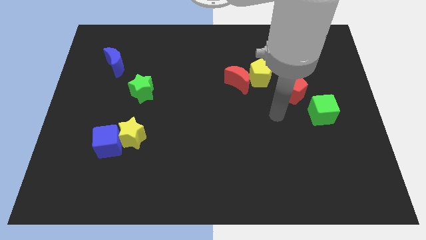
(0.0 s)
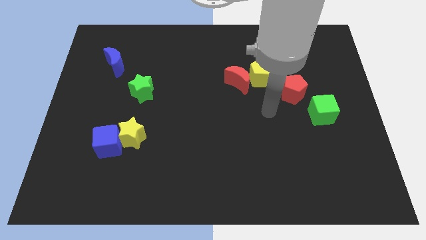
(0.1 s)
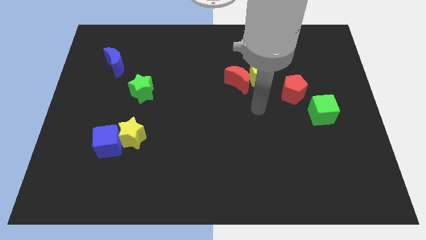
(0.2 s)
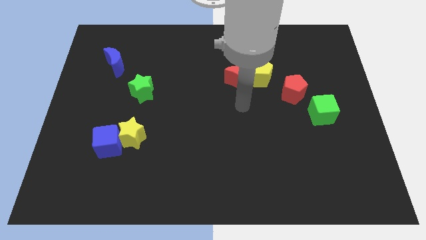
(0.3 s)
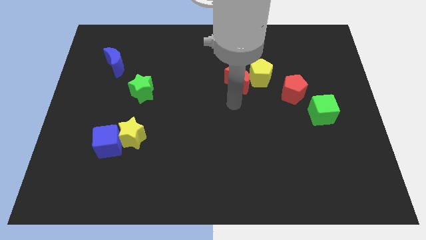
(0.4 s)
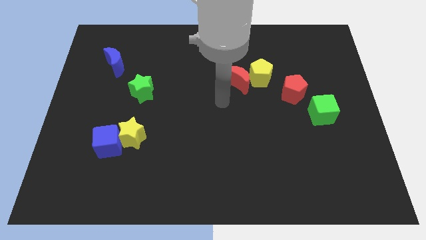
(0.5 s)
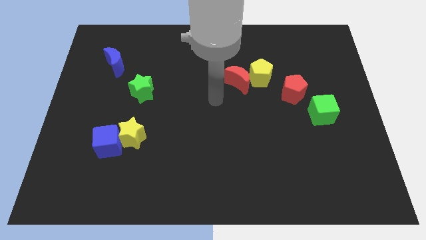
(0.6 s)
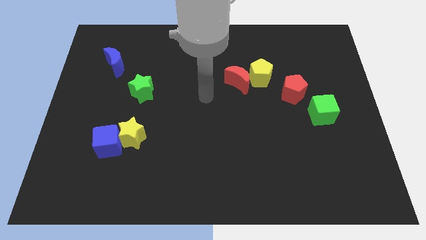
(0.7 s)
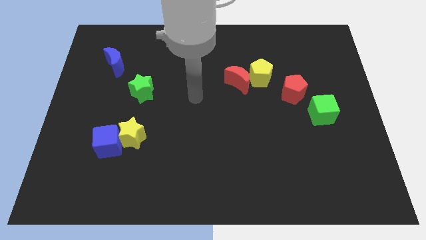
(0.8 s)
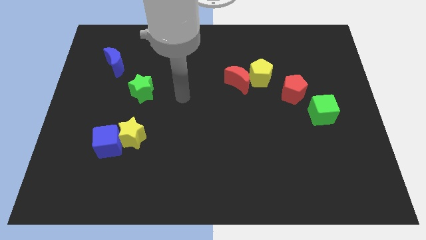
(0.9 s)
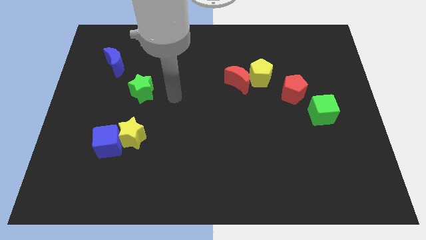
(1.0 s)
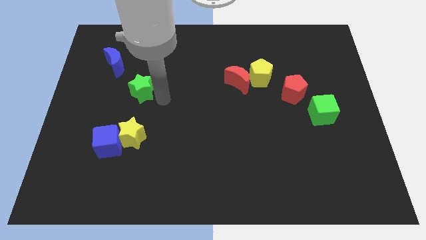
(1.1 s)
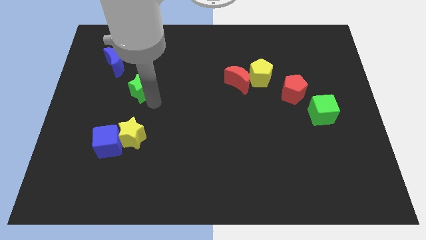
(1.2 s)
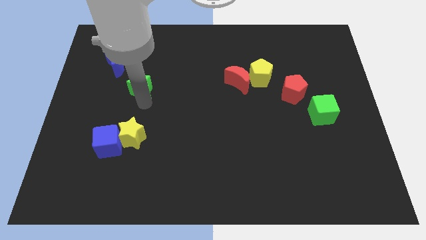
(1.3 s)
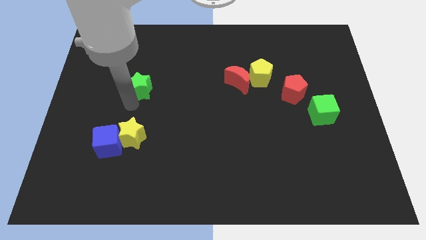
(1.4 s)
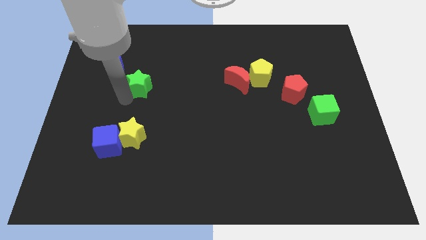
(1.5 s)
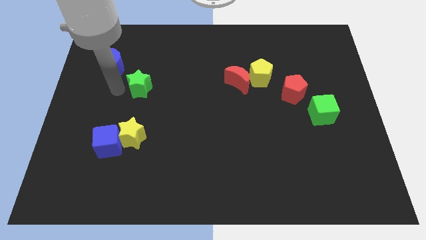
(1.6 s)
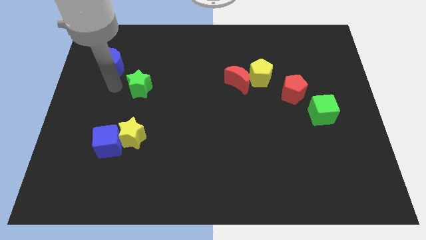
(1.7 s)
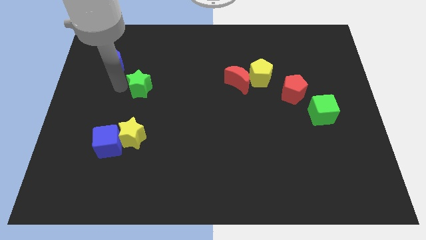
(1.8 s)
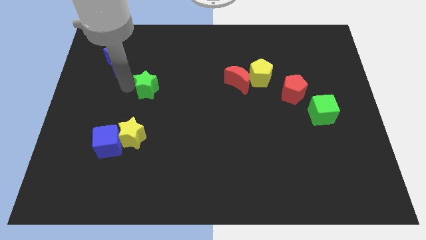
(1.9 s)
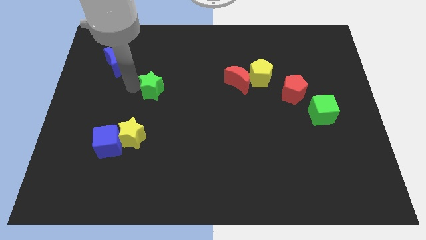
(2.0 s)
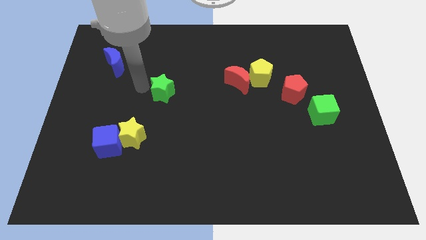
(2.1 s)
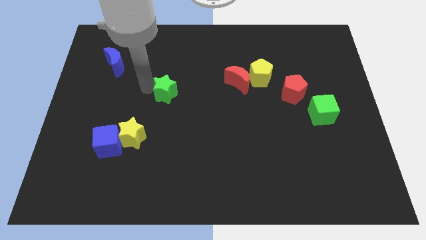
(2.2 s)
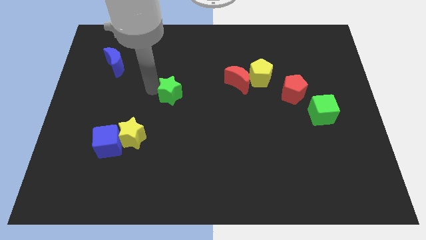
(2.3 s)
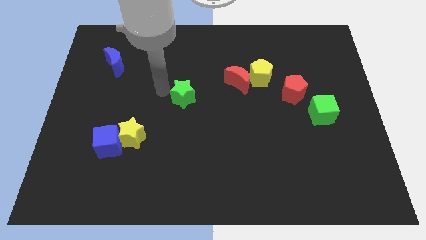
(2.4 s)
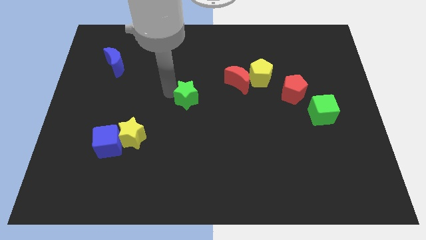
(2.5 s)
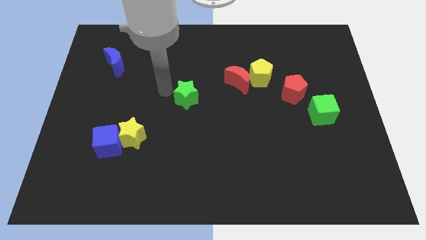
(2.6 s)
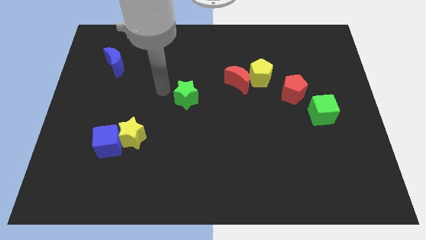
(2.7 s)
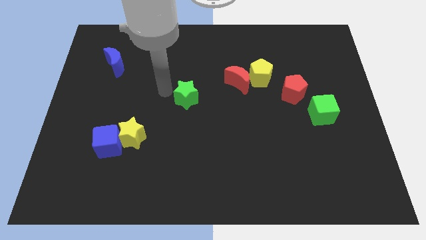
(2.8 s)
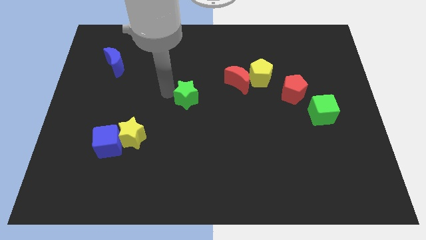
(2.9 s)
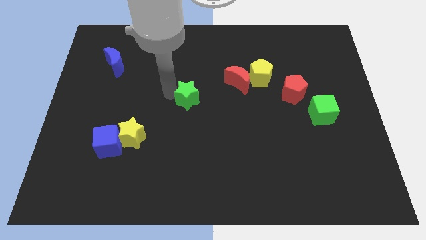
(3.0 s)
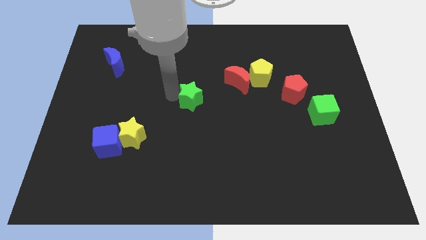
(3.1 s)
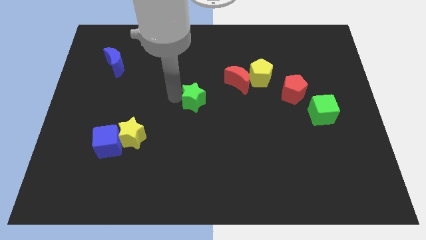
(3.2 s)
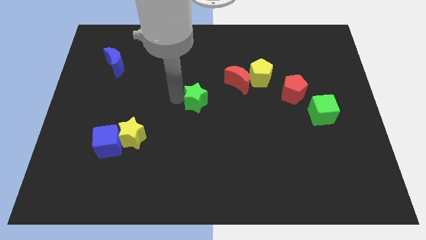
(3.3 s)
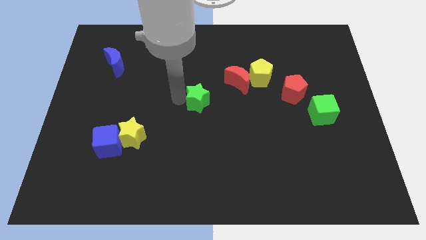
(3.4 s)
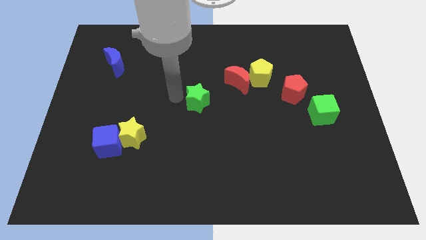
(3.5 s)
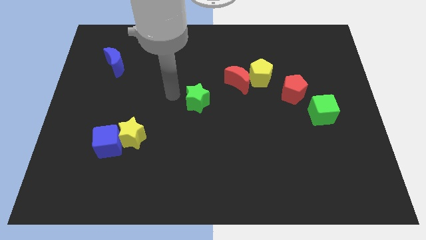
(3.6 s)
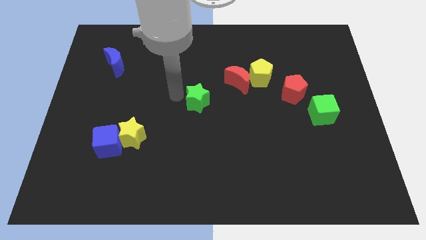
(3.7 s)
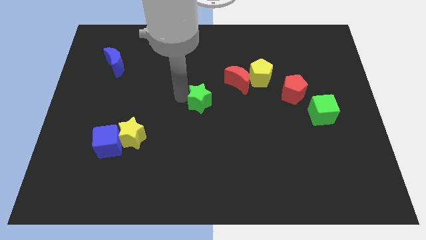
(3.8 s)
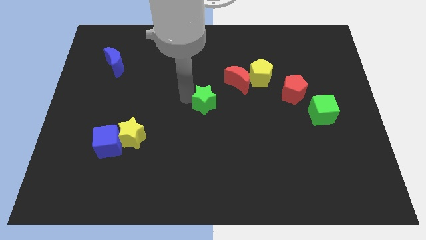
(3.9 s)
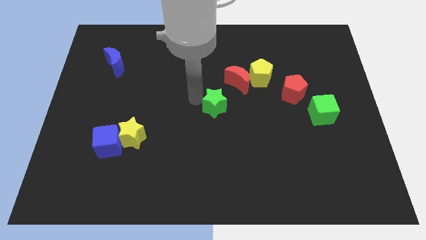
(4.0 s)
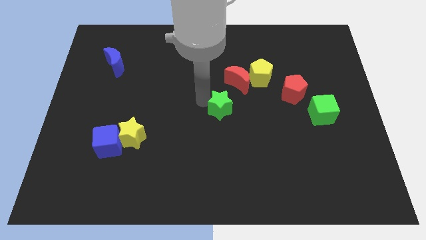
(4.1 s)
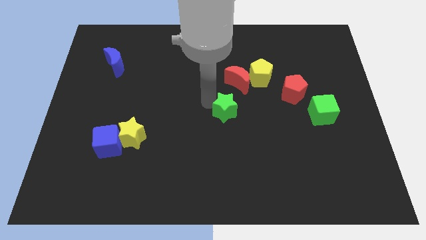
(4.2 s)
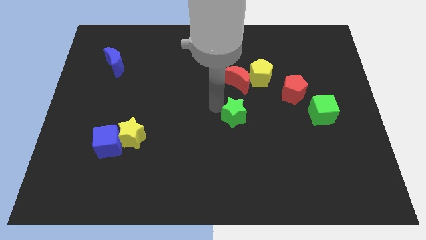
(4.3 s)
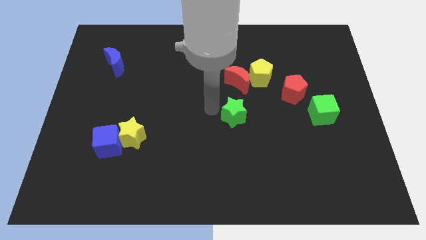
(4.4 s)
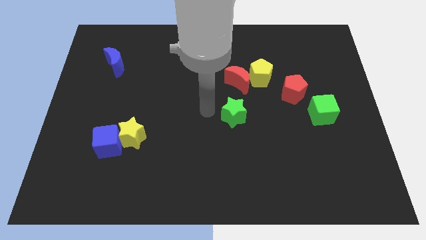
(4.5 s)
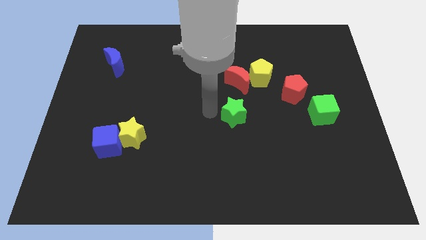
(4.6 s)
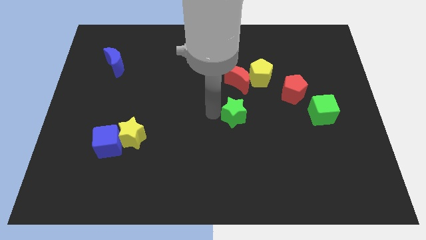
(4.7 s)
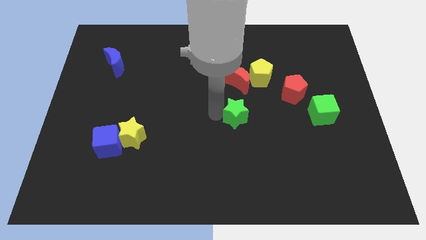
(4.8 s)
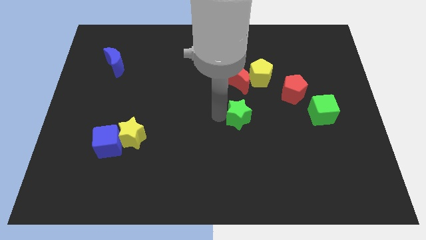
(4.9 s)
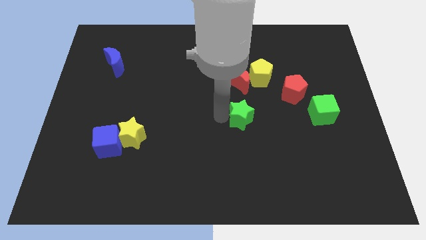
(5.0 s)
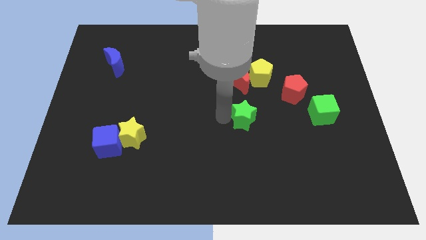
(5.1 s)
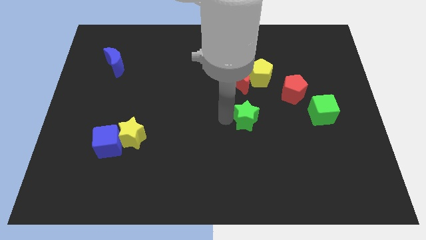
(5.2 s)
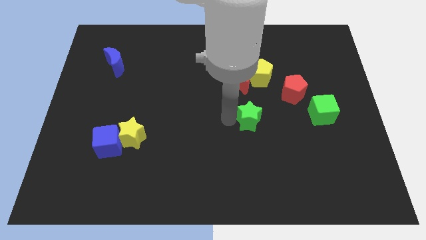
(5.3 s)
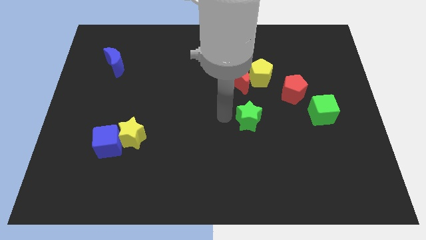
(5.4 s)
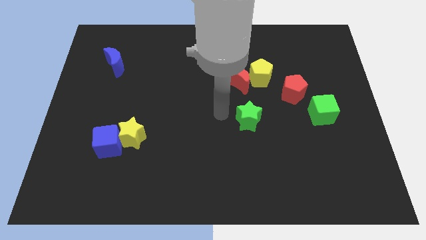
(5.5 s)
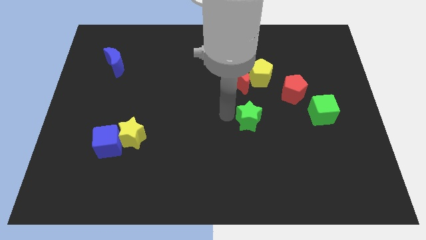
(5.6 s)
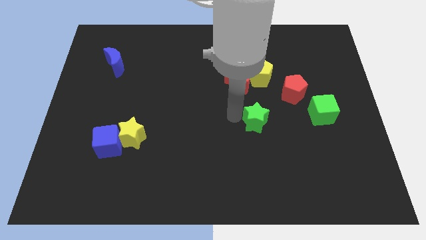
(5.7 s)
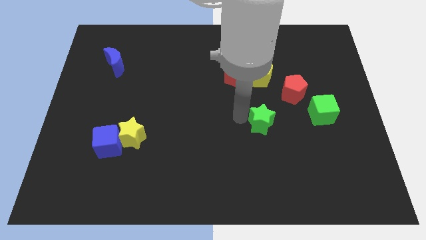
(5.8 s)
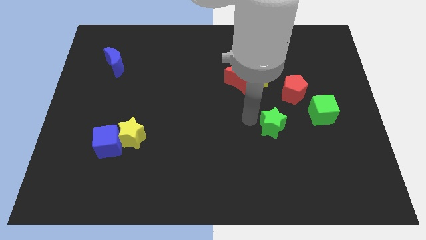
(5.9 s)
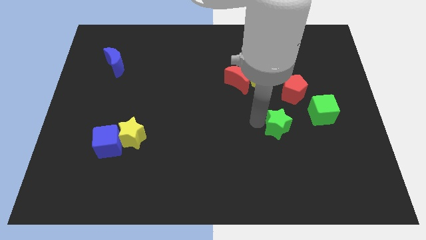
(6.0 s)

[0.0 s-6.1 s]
push the green star to the bottom of the red pentagon

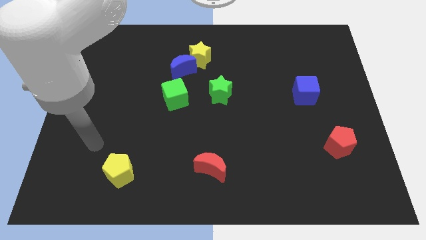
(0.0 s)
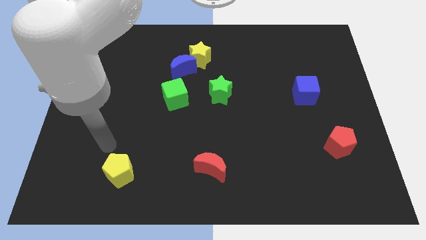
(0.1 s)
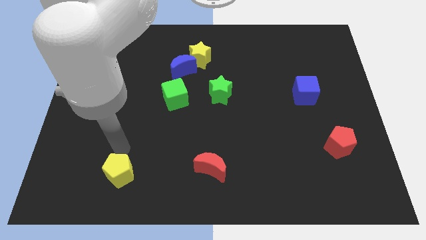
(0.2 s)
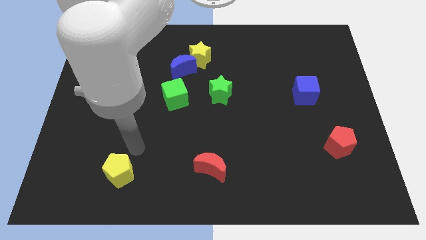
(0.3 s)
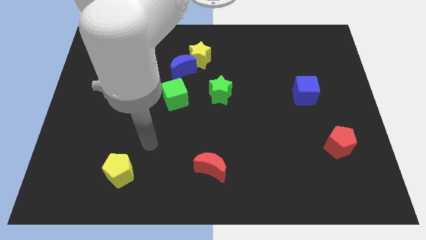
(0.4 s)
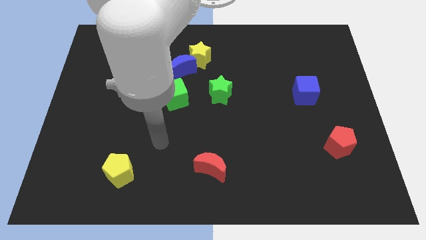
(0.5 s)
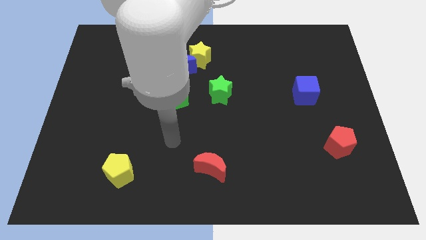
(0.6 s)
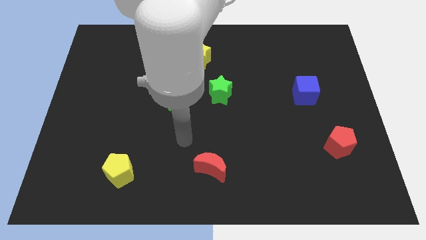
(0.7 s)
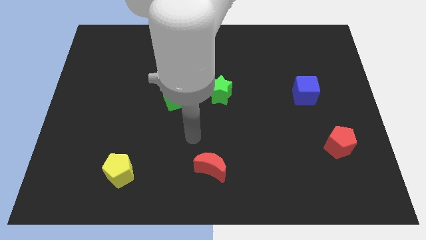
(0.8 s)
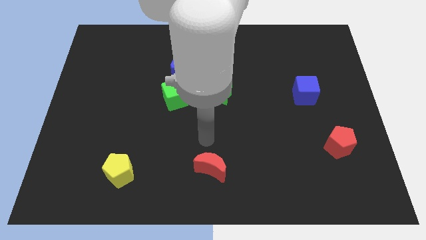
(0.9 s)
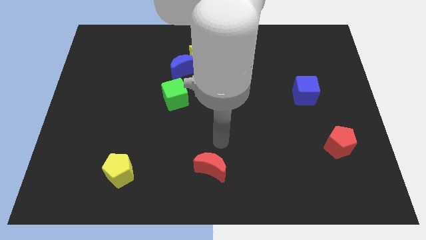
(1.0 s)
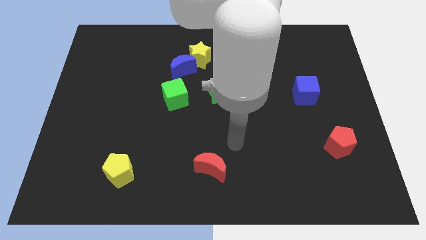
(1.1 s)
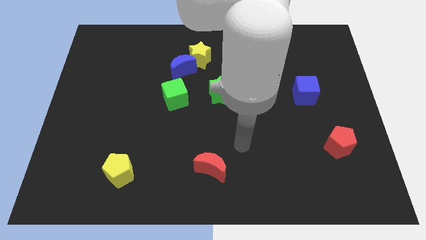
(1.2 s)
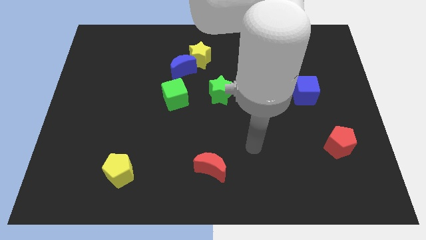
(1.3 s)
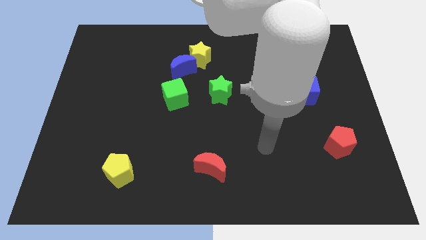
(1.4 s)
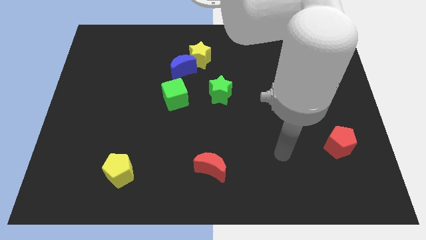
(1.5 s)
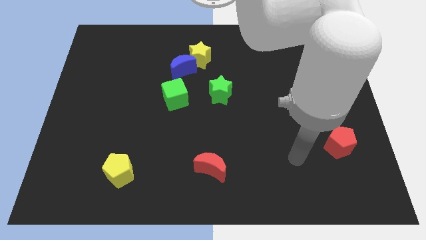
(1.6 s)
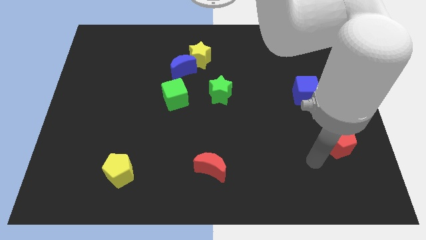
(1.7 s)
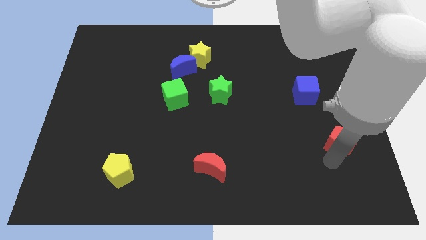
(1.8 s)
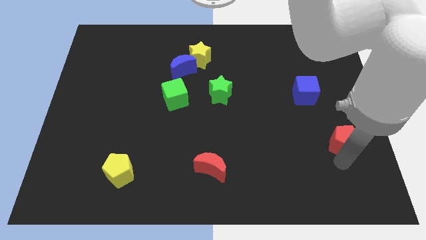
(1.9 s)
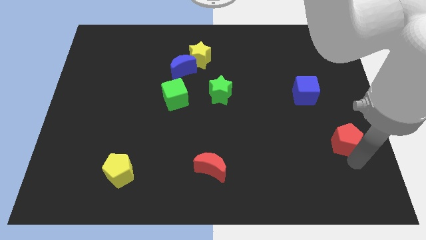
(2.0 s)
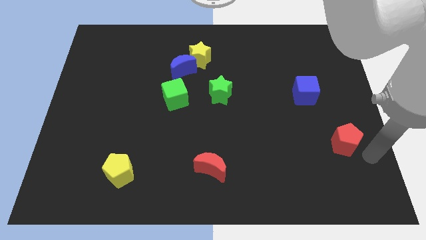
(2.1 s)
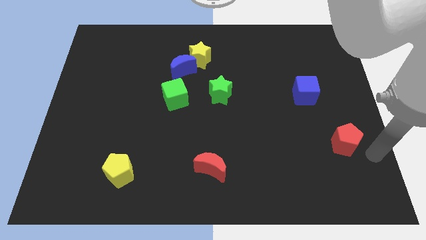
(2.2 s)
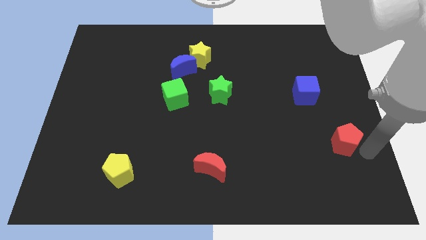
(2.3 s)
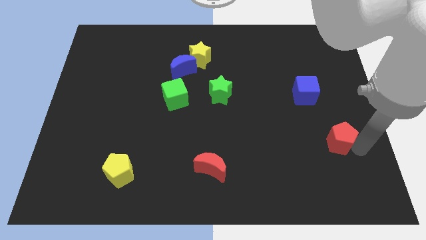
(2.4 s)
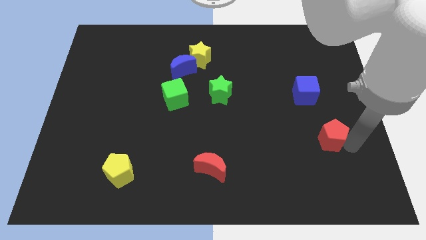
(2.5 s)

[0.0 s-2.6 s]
move the red pentagon to the bottom of the blue cube
